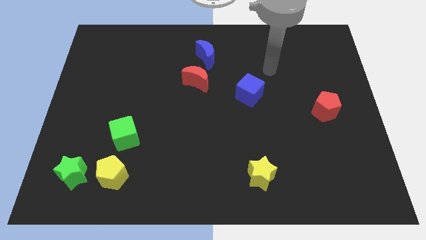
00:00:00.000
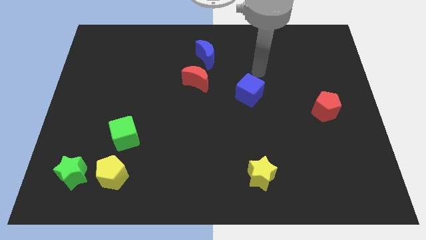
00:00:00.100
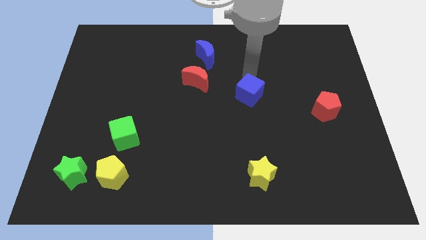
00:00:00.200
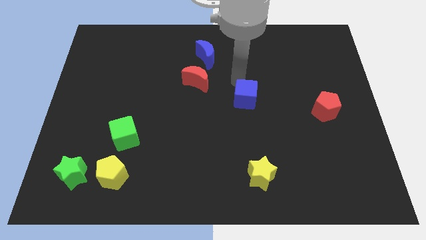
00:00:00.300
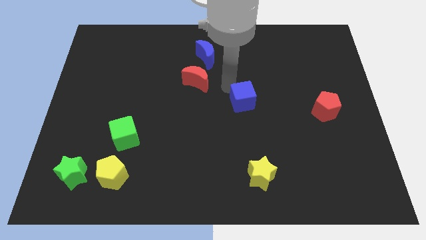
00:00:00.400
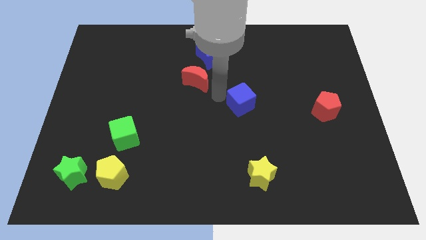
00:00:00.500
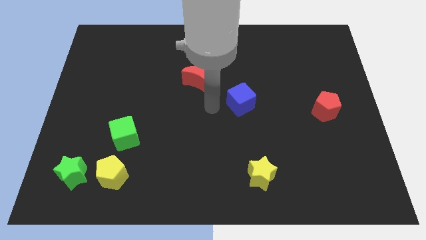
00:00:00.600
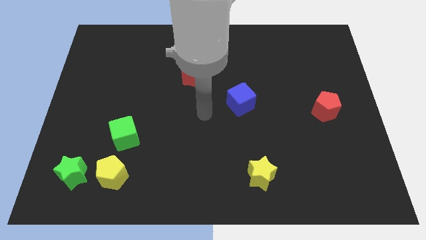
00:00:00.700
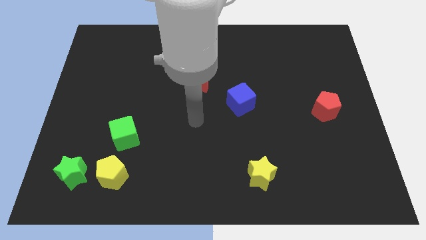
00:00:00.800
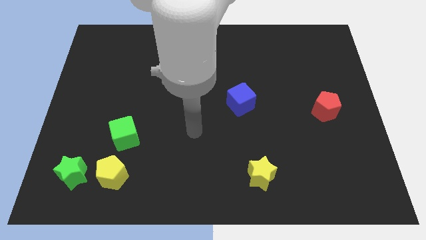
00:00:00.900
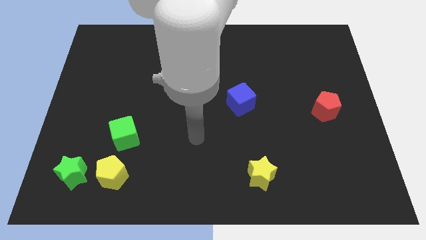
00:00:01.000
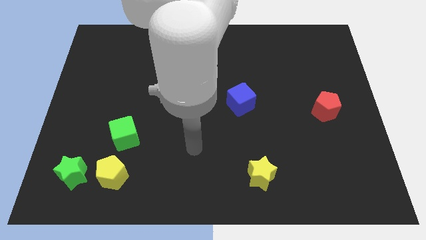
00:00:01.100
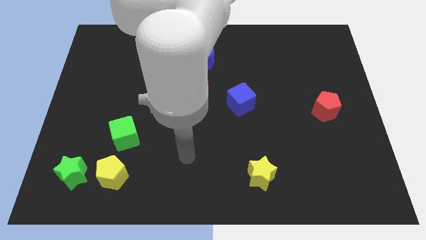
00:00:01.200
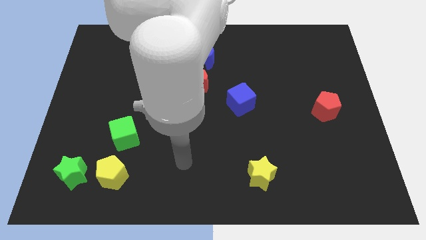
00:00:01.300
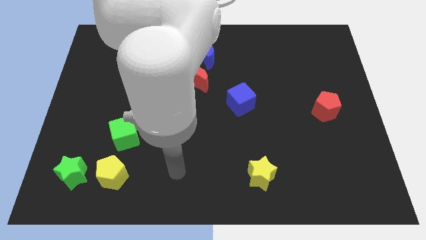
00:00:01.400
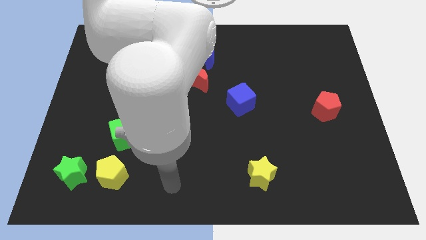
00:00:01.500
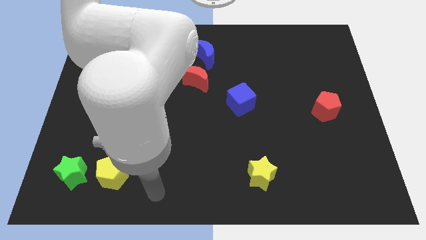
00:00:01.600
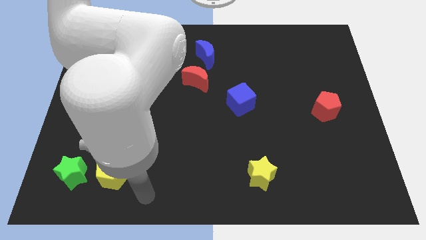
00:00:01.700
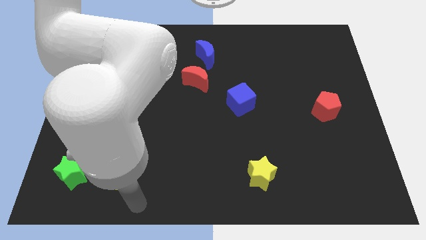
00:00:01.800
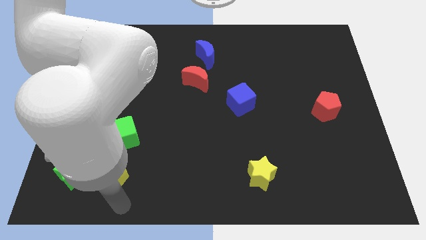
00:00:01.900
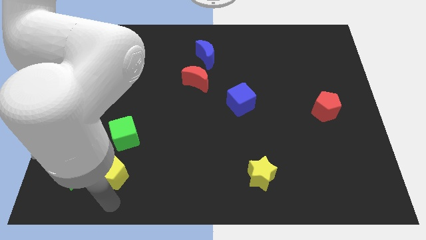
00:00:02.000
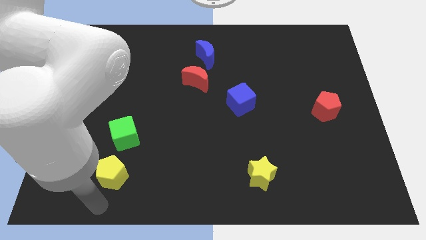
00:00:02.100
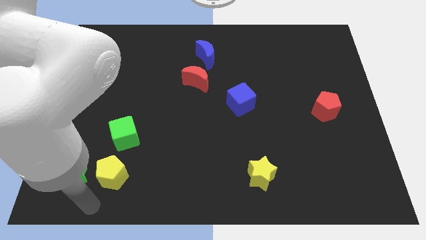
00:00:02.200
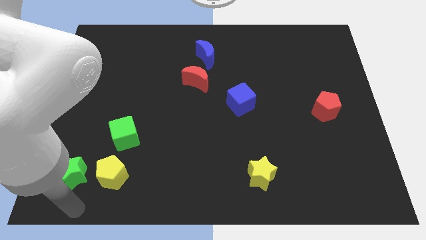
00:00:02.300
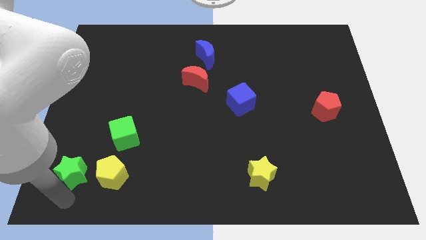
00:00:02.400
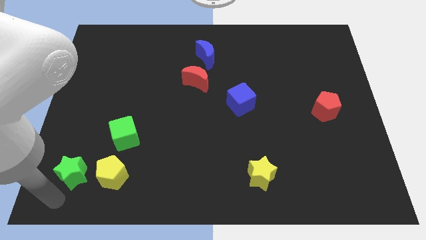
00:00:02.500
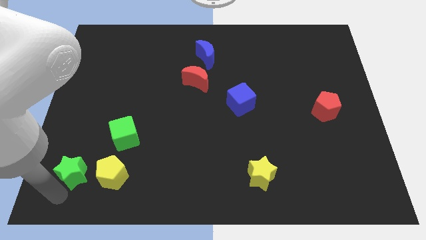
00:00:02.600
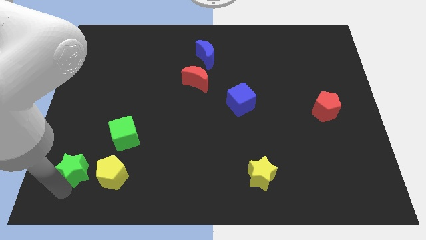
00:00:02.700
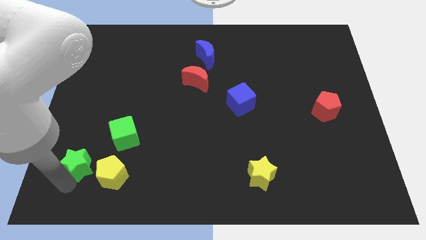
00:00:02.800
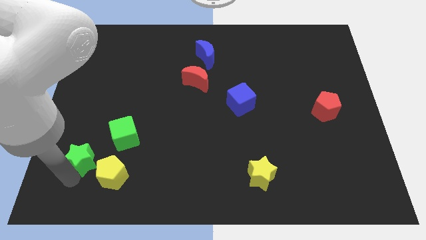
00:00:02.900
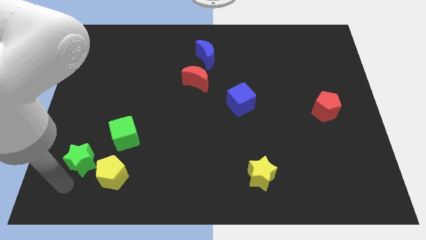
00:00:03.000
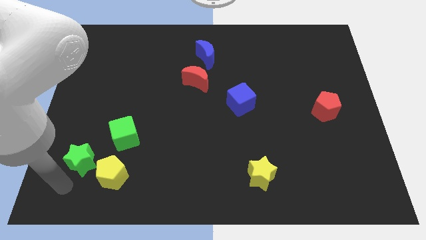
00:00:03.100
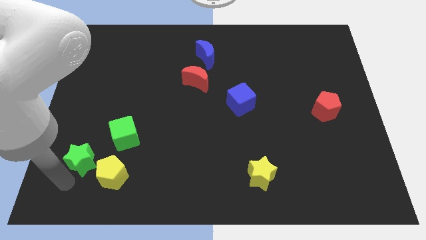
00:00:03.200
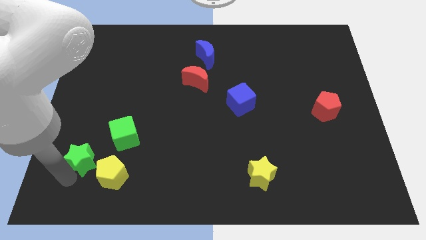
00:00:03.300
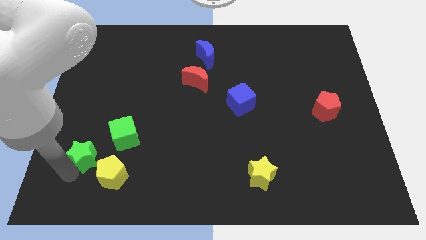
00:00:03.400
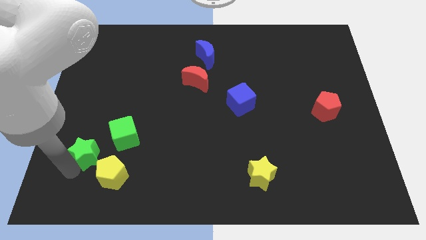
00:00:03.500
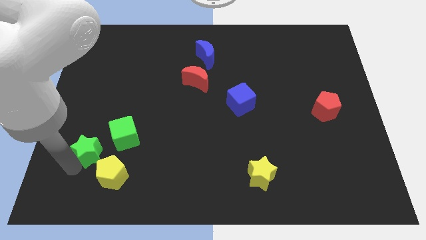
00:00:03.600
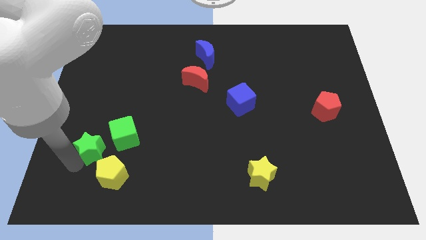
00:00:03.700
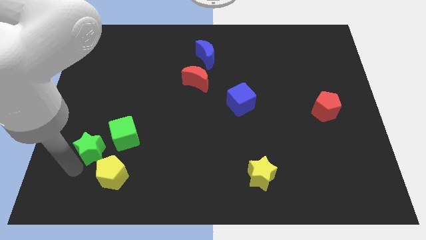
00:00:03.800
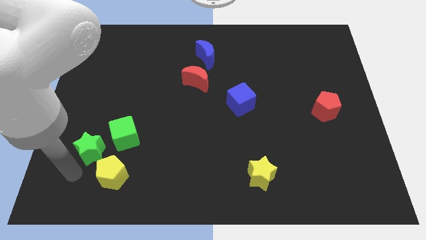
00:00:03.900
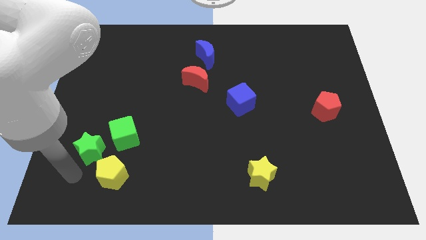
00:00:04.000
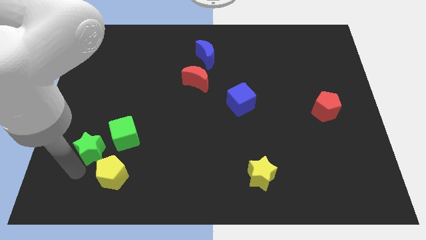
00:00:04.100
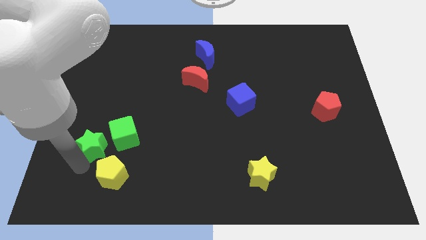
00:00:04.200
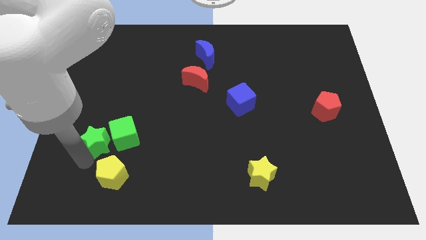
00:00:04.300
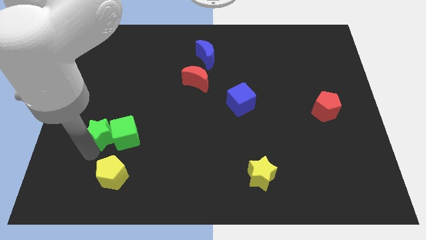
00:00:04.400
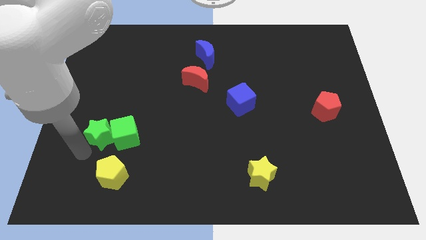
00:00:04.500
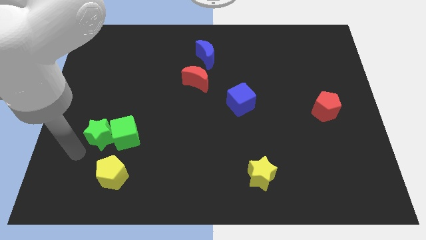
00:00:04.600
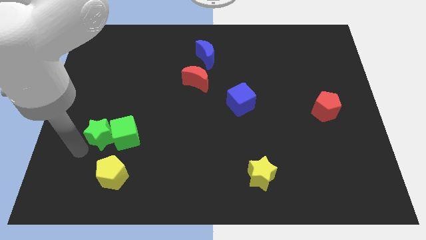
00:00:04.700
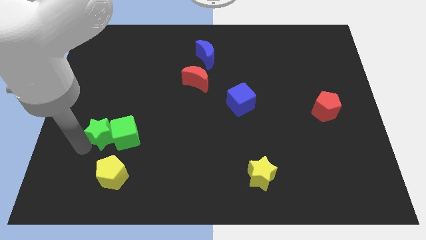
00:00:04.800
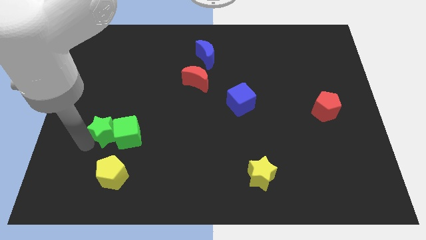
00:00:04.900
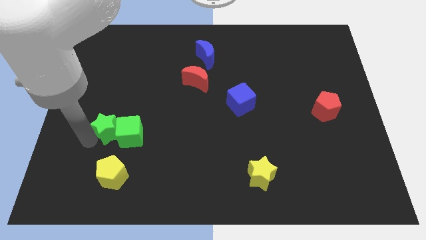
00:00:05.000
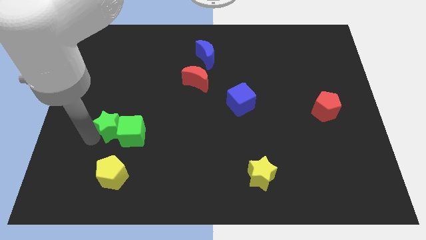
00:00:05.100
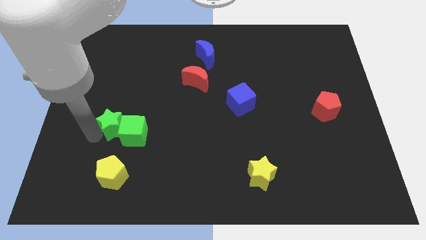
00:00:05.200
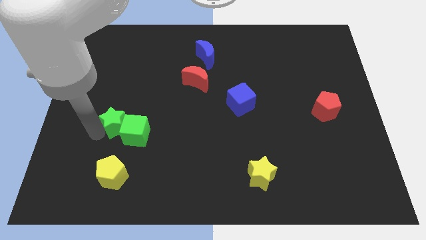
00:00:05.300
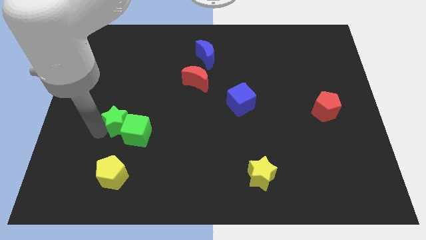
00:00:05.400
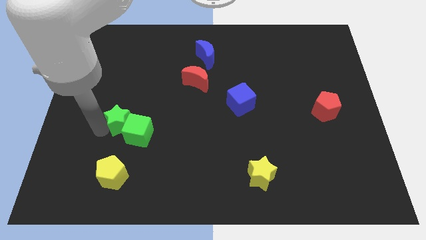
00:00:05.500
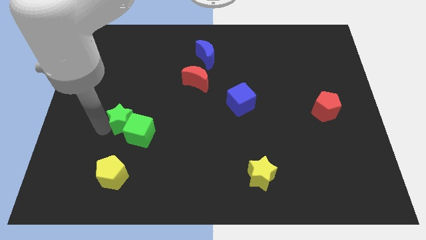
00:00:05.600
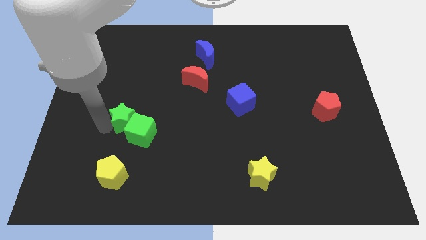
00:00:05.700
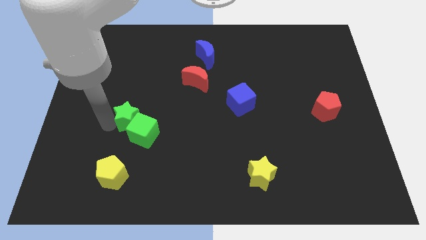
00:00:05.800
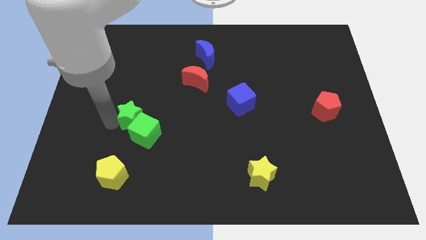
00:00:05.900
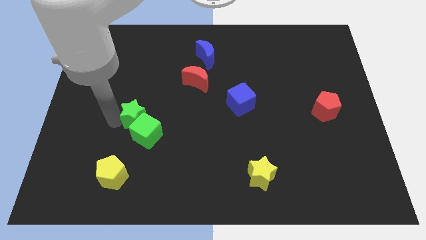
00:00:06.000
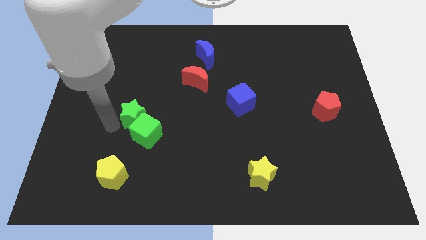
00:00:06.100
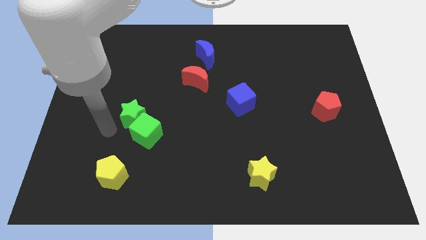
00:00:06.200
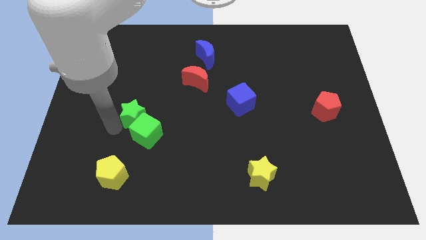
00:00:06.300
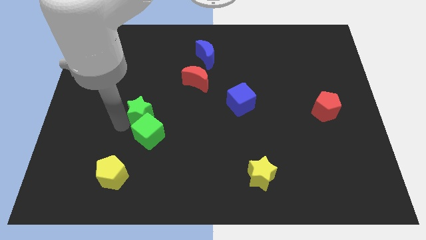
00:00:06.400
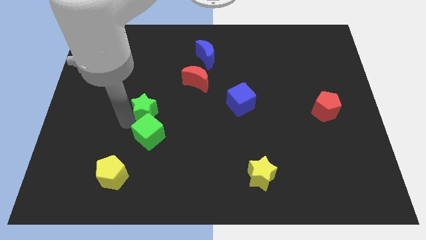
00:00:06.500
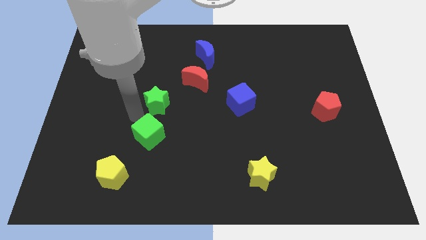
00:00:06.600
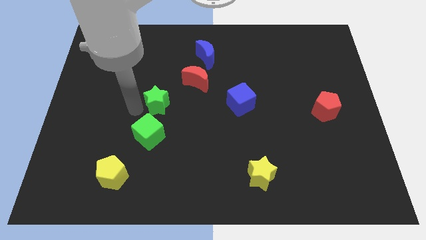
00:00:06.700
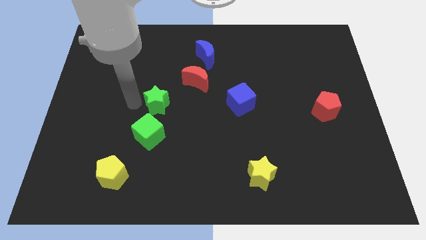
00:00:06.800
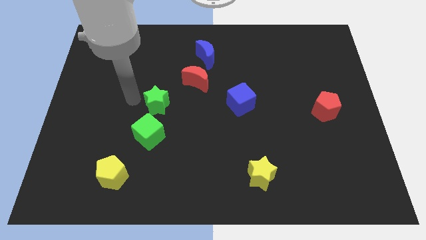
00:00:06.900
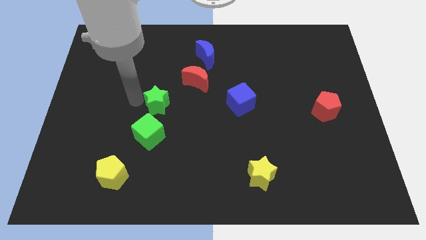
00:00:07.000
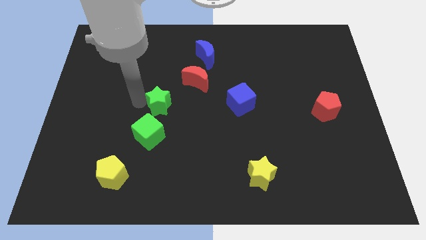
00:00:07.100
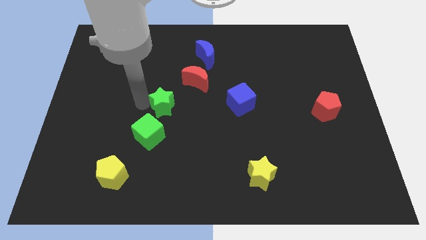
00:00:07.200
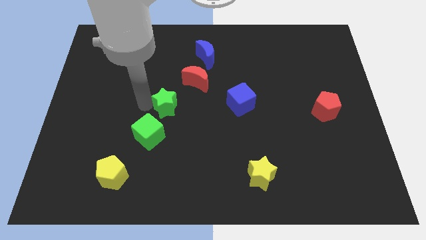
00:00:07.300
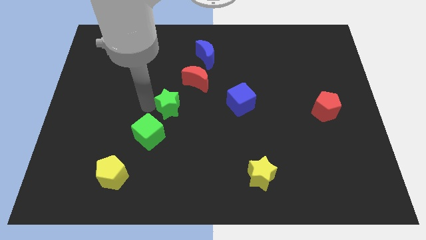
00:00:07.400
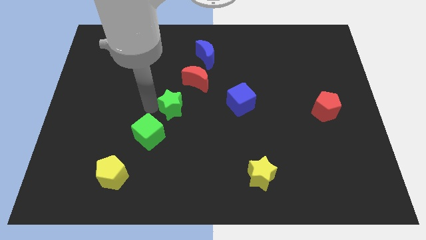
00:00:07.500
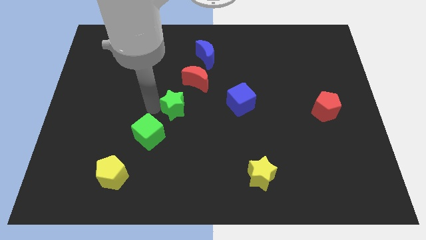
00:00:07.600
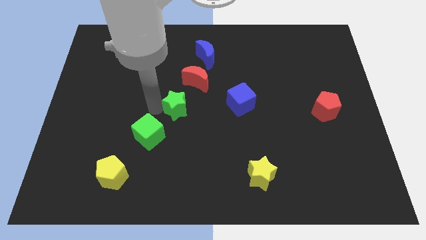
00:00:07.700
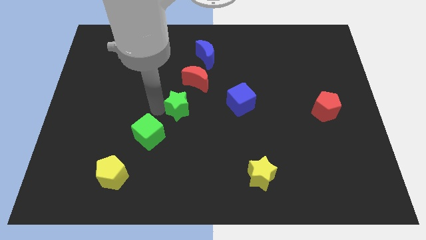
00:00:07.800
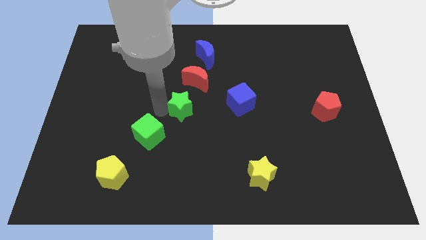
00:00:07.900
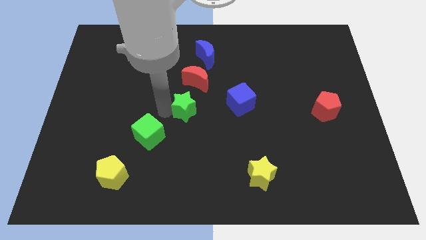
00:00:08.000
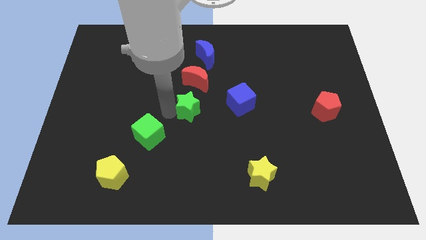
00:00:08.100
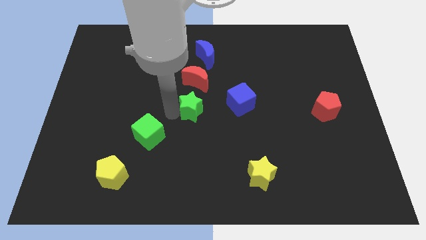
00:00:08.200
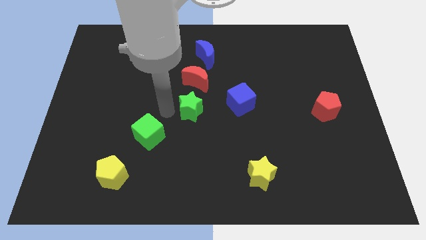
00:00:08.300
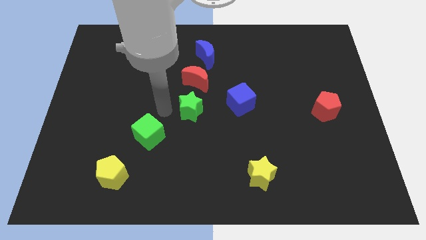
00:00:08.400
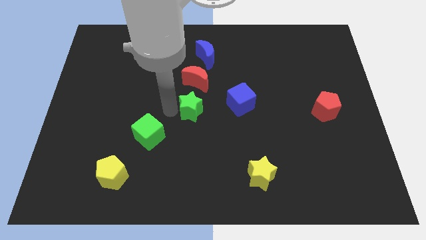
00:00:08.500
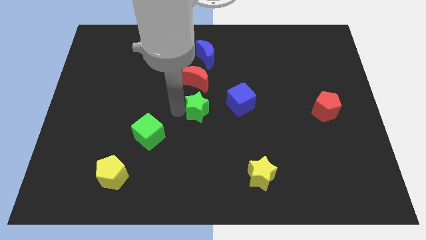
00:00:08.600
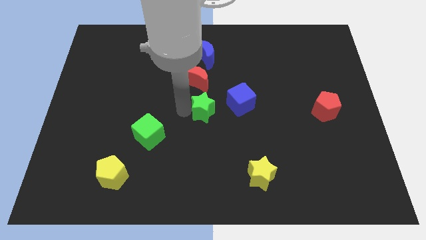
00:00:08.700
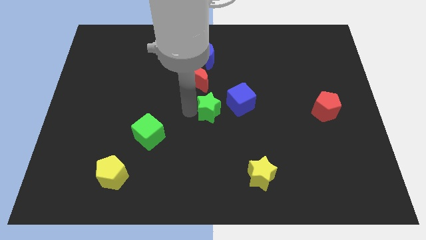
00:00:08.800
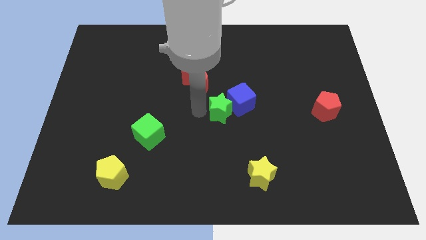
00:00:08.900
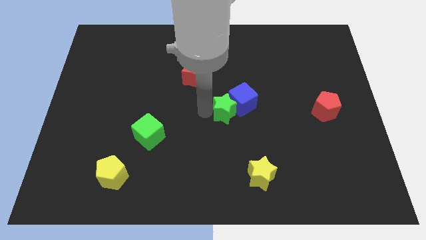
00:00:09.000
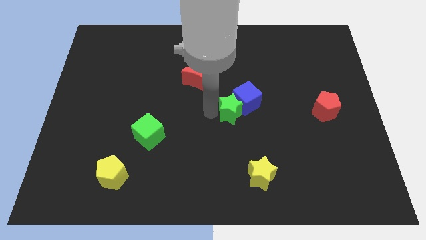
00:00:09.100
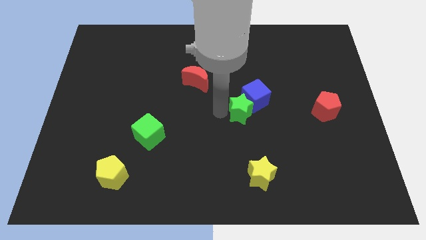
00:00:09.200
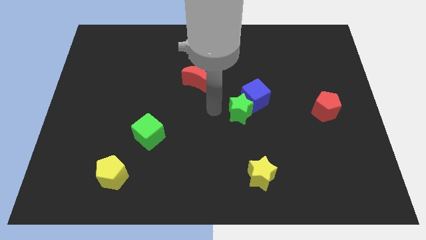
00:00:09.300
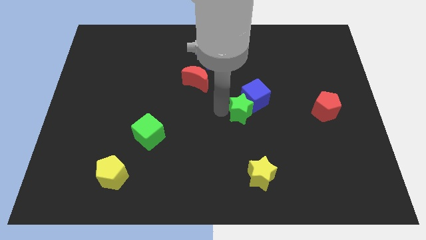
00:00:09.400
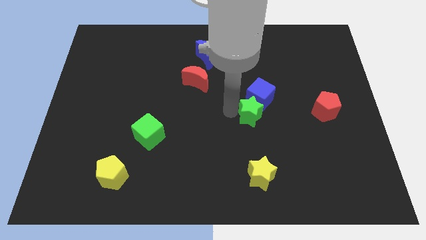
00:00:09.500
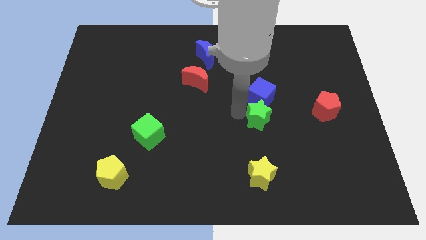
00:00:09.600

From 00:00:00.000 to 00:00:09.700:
put the green star to the bottom right of the blue cube
